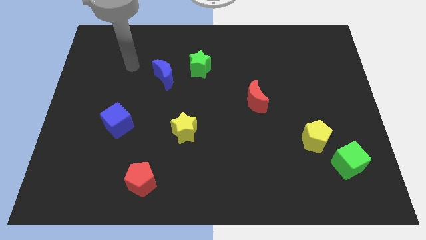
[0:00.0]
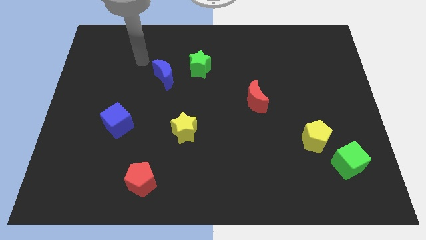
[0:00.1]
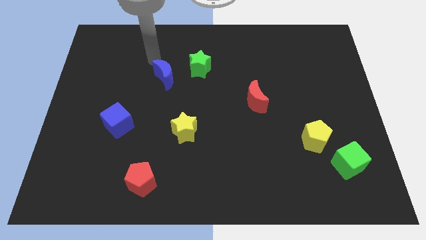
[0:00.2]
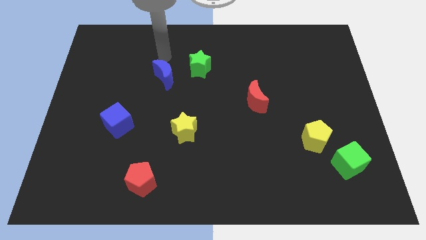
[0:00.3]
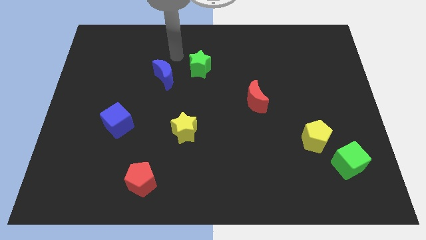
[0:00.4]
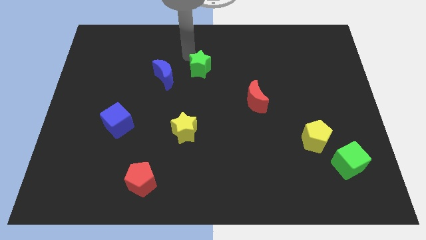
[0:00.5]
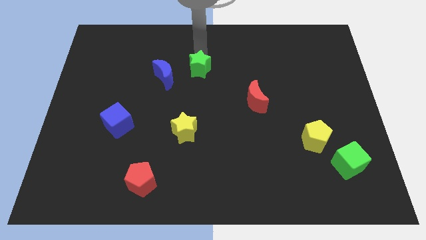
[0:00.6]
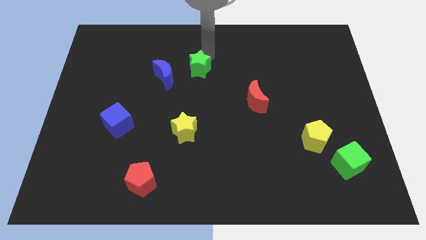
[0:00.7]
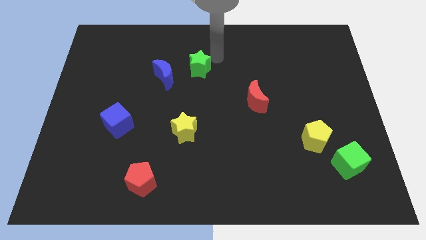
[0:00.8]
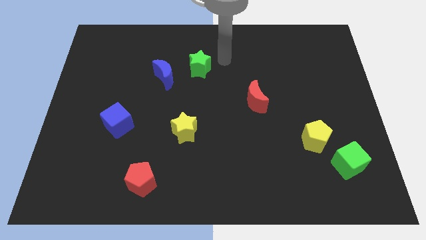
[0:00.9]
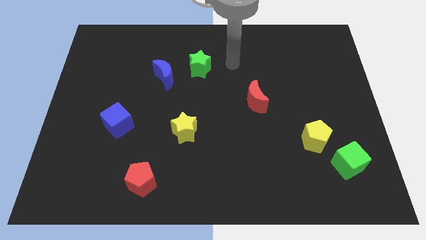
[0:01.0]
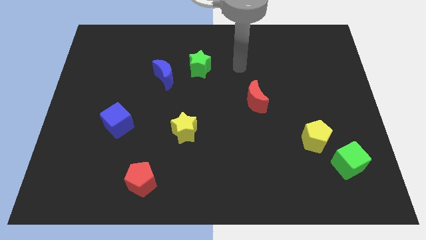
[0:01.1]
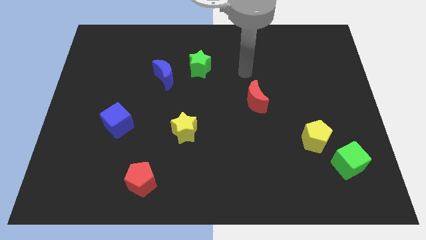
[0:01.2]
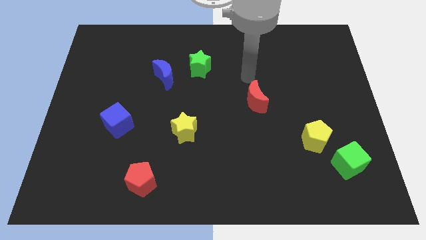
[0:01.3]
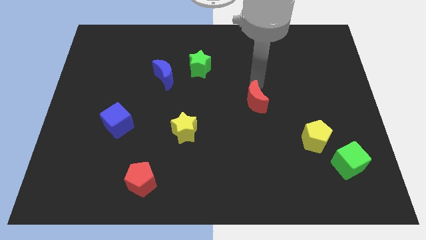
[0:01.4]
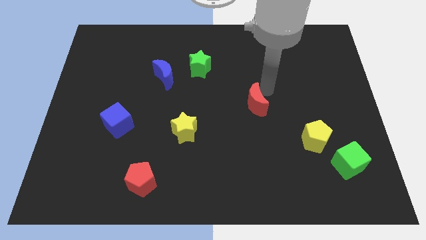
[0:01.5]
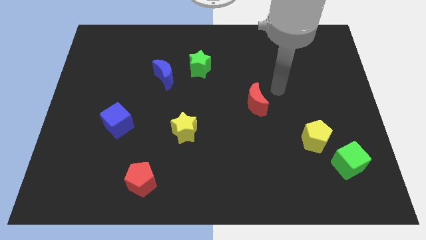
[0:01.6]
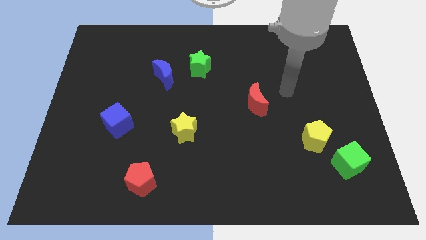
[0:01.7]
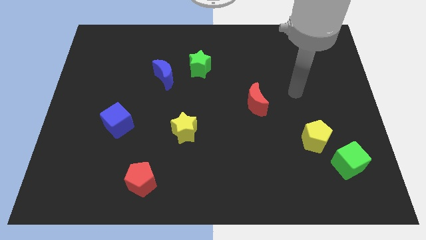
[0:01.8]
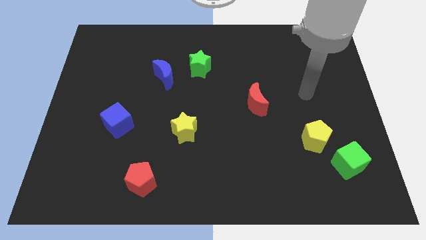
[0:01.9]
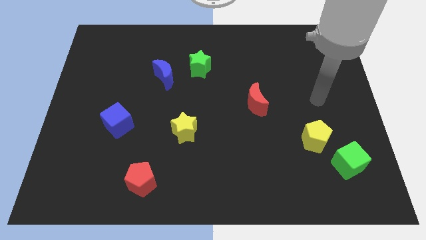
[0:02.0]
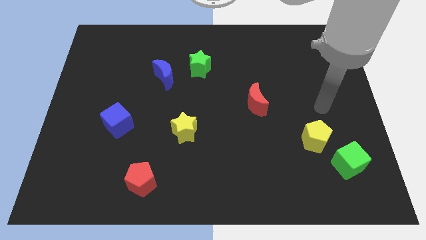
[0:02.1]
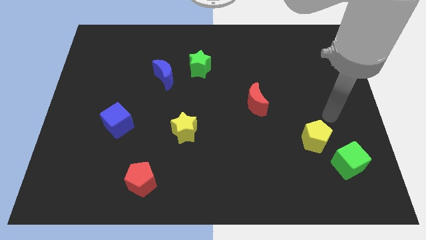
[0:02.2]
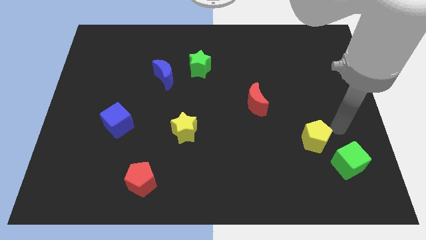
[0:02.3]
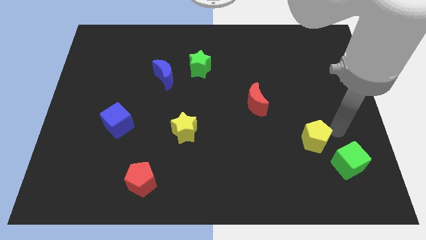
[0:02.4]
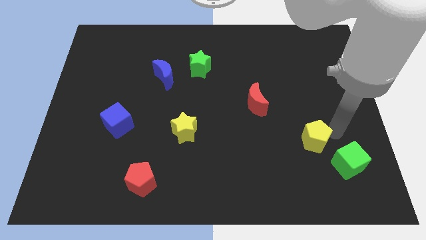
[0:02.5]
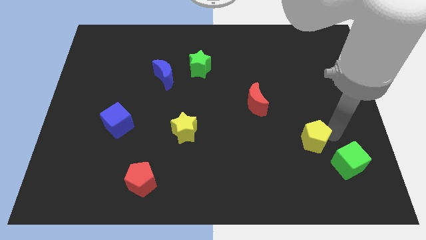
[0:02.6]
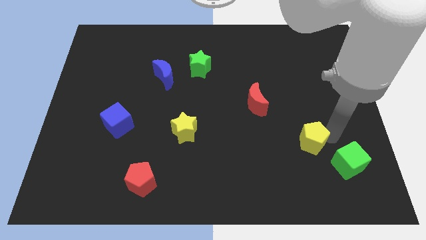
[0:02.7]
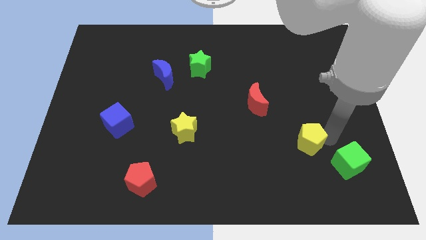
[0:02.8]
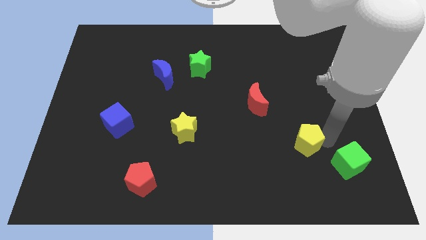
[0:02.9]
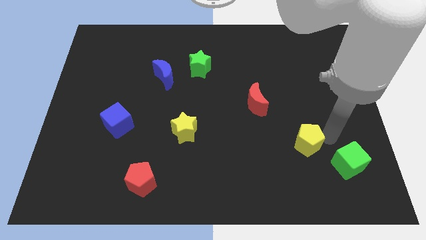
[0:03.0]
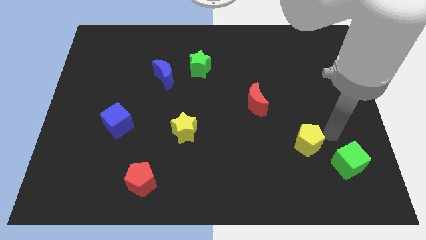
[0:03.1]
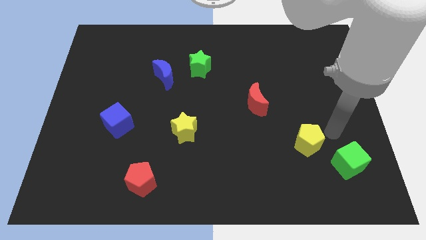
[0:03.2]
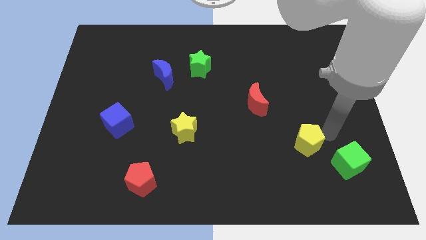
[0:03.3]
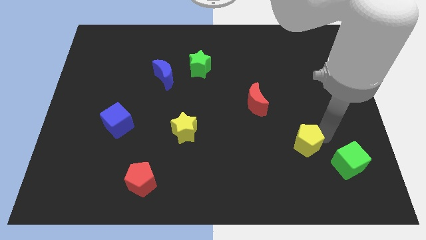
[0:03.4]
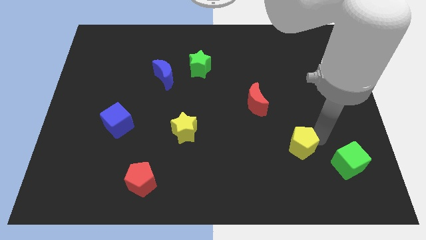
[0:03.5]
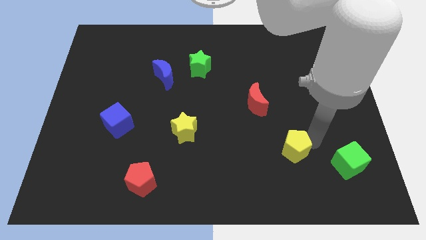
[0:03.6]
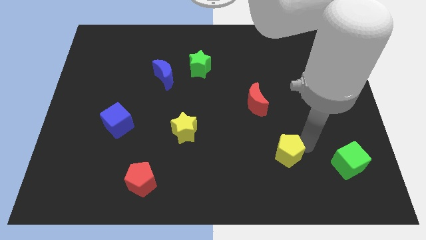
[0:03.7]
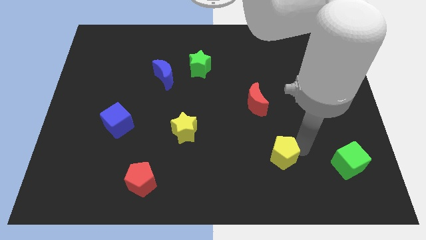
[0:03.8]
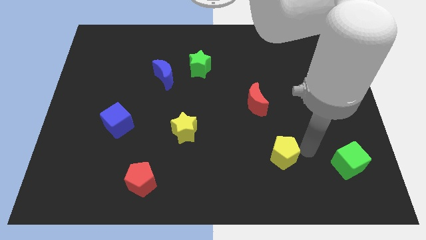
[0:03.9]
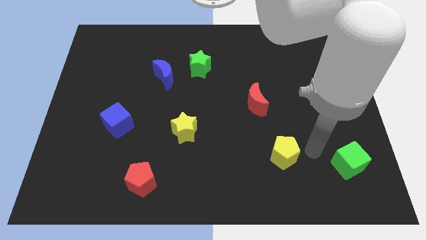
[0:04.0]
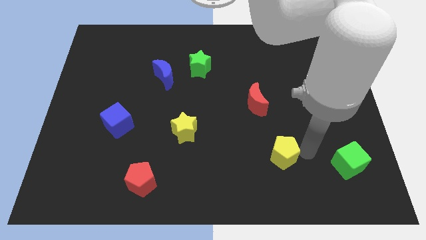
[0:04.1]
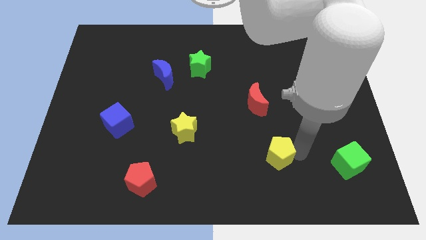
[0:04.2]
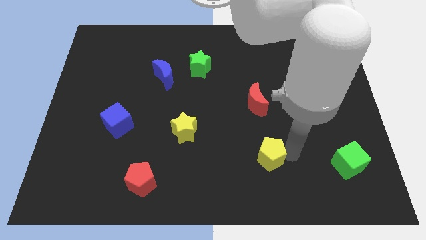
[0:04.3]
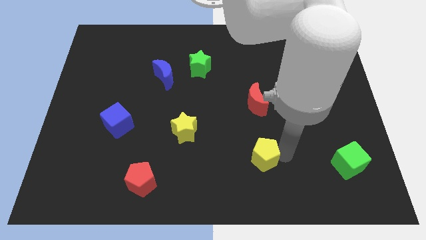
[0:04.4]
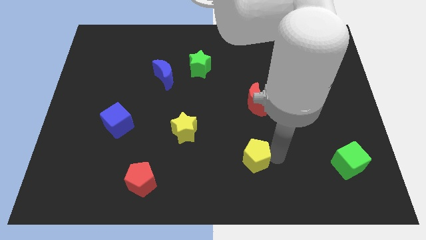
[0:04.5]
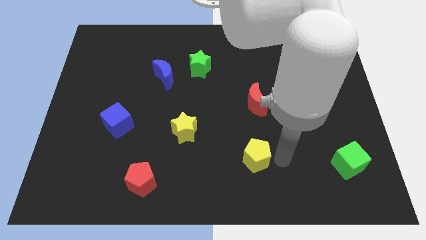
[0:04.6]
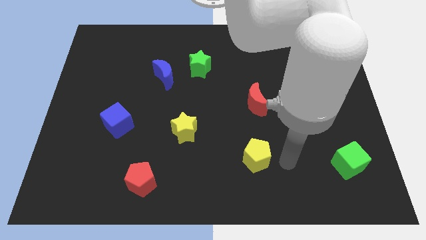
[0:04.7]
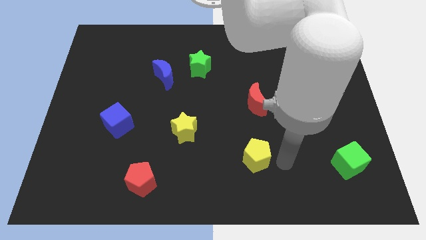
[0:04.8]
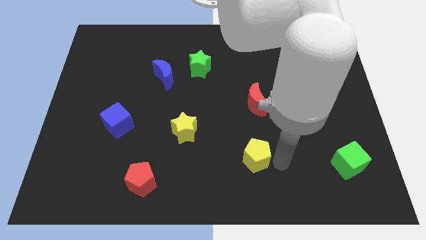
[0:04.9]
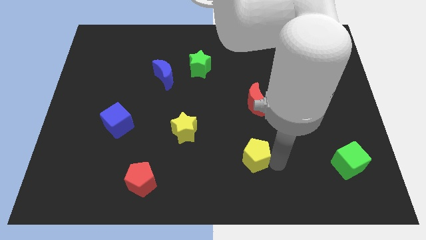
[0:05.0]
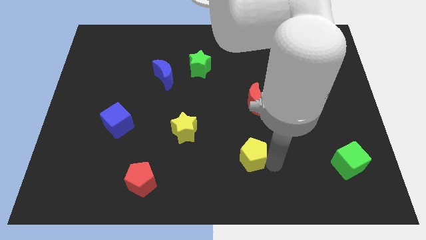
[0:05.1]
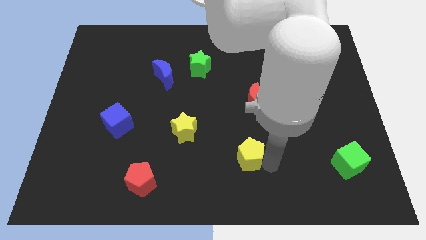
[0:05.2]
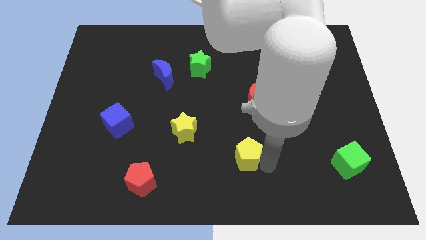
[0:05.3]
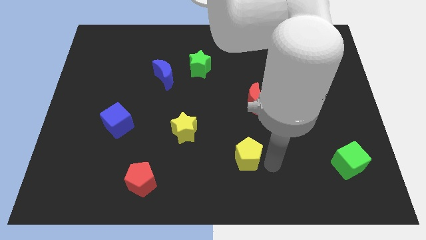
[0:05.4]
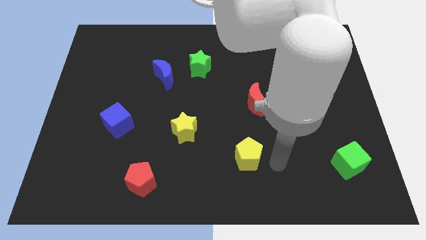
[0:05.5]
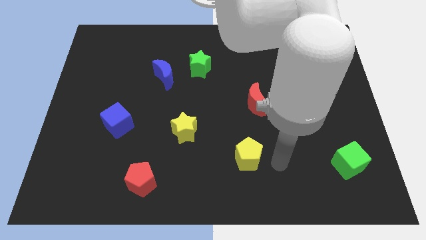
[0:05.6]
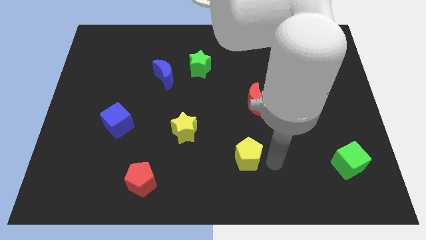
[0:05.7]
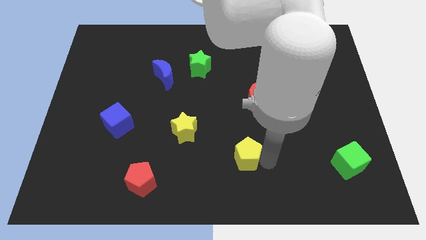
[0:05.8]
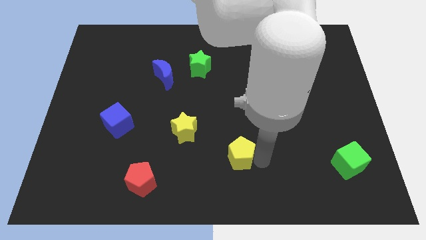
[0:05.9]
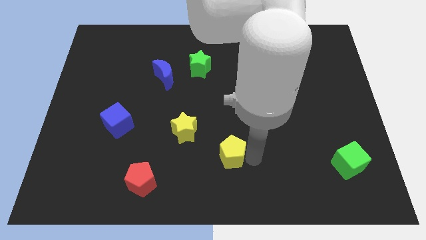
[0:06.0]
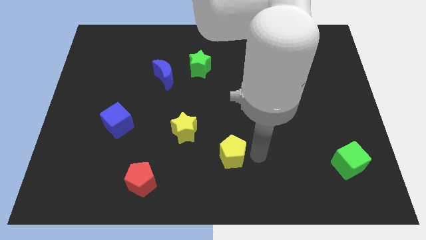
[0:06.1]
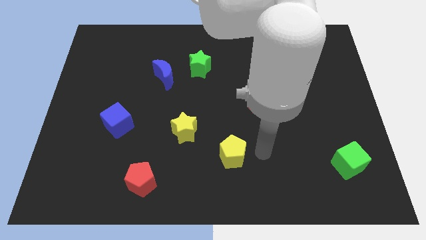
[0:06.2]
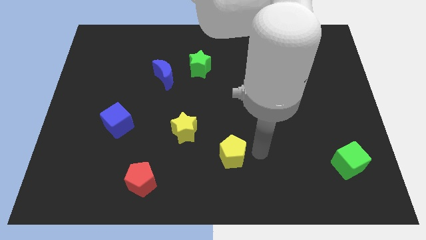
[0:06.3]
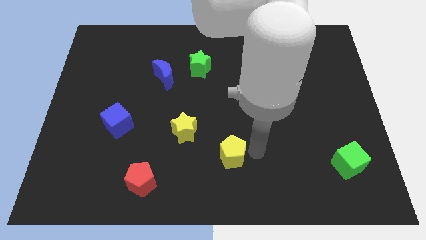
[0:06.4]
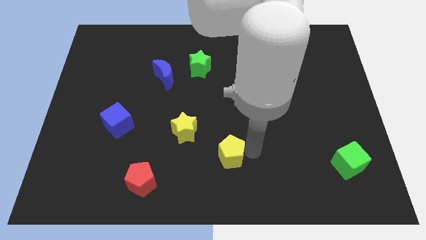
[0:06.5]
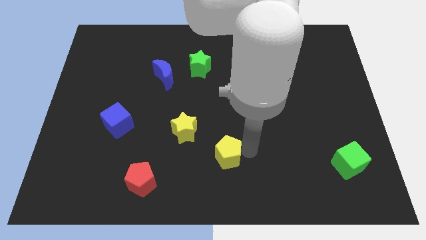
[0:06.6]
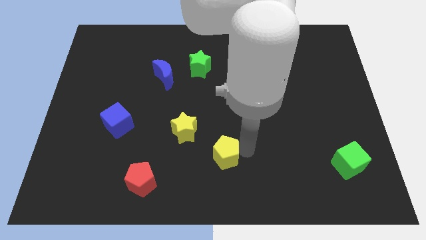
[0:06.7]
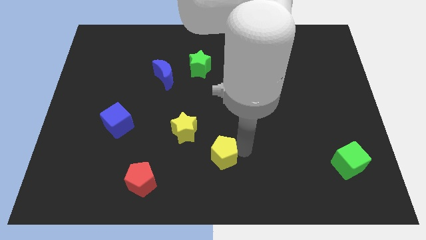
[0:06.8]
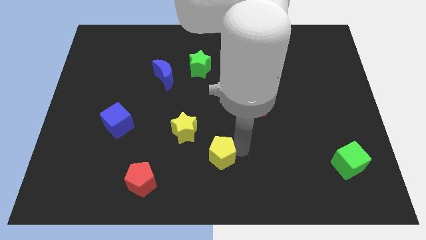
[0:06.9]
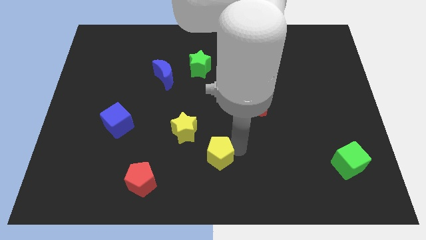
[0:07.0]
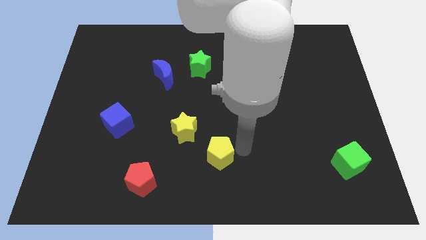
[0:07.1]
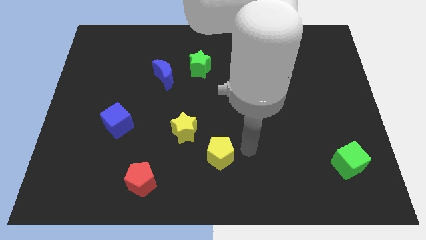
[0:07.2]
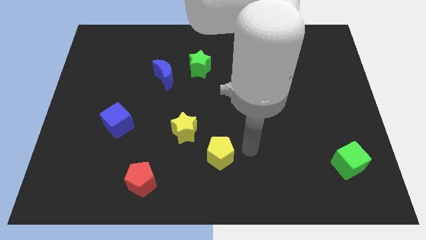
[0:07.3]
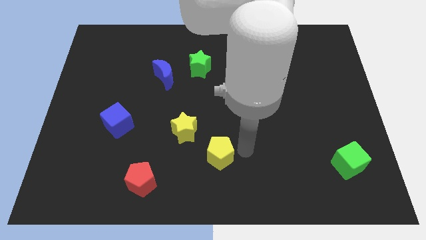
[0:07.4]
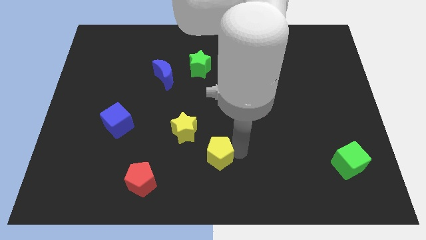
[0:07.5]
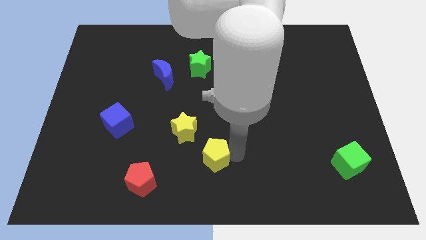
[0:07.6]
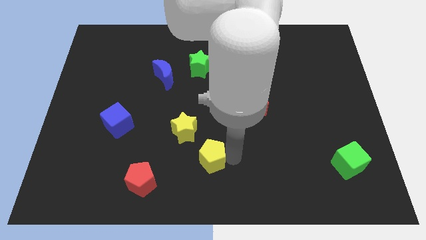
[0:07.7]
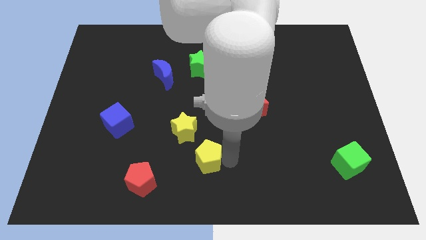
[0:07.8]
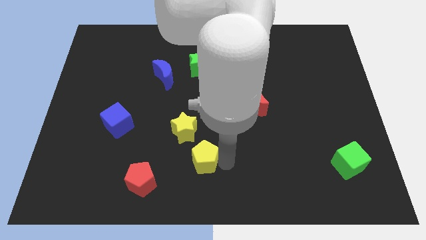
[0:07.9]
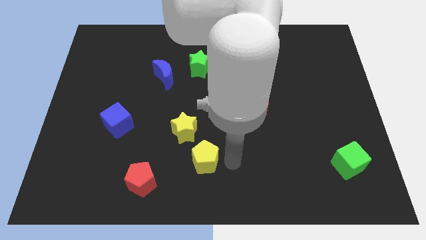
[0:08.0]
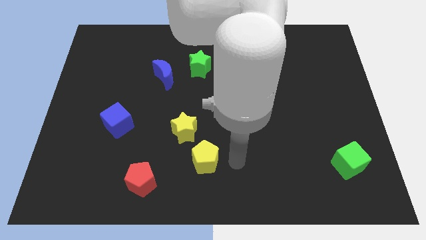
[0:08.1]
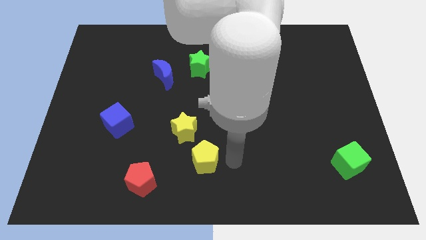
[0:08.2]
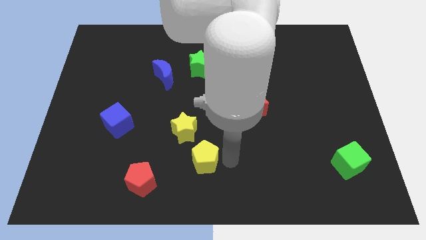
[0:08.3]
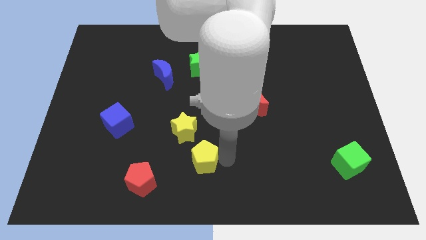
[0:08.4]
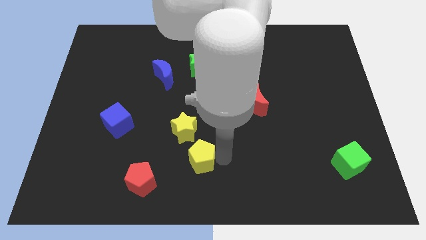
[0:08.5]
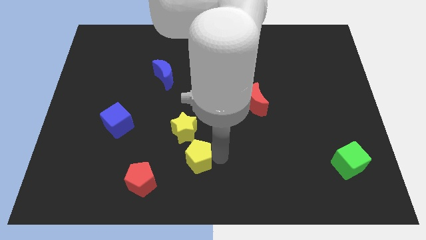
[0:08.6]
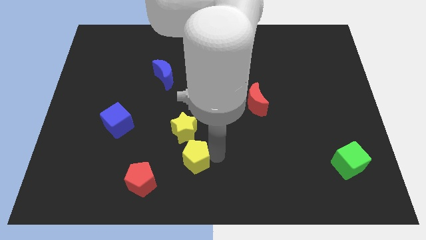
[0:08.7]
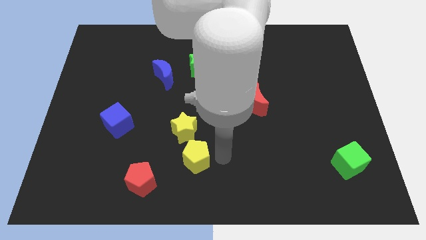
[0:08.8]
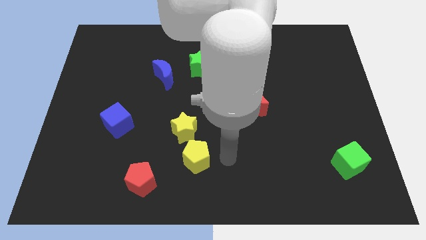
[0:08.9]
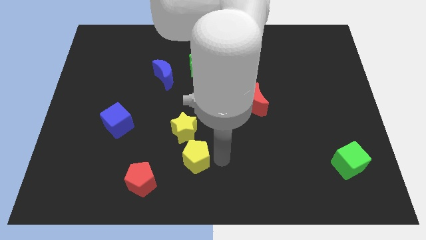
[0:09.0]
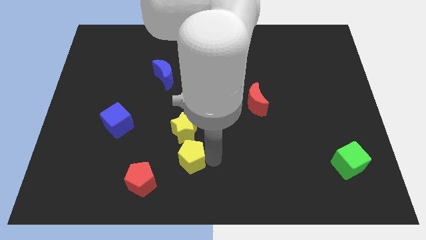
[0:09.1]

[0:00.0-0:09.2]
move the yellow pentagon to the top right of the red pentagon
